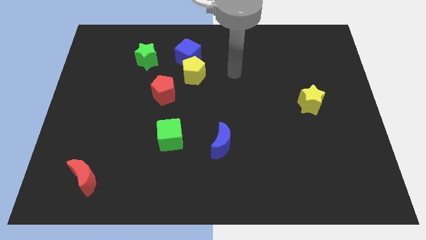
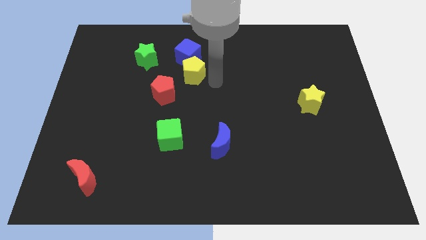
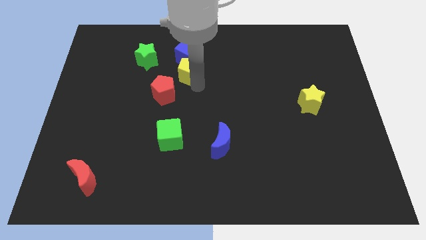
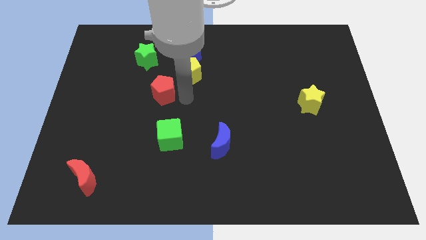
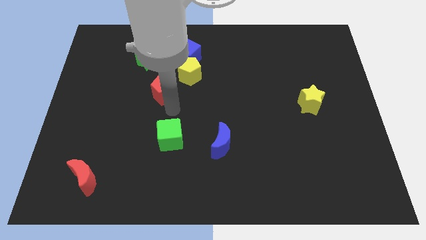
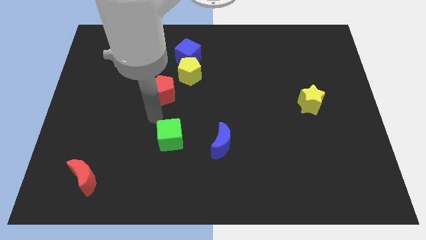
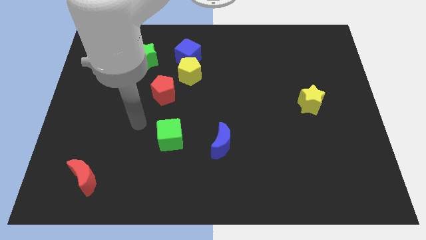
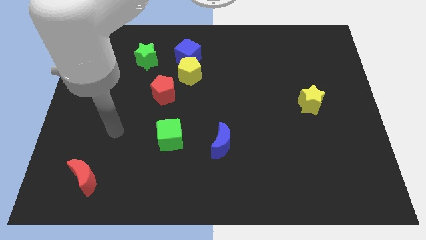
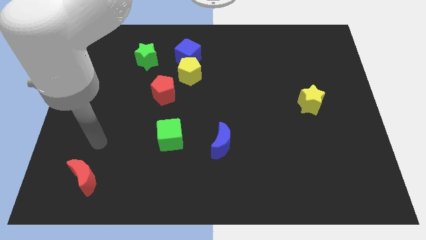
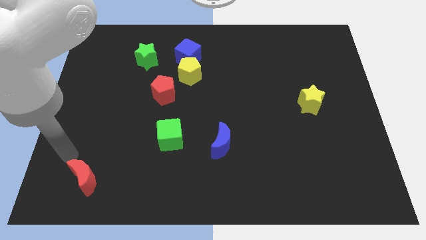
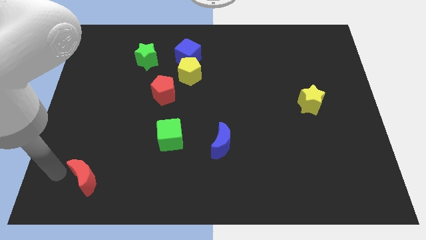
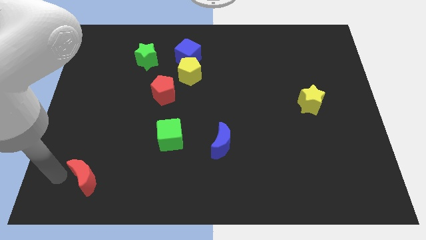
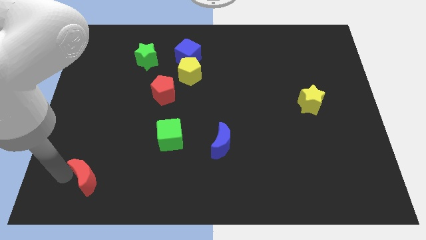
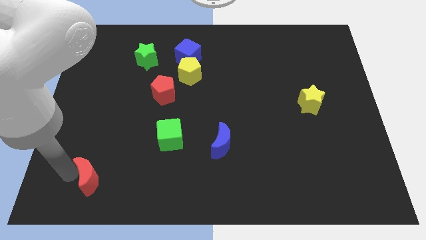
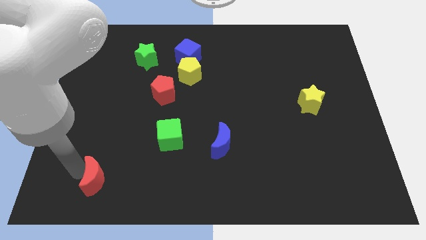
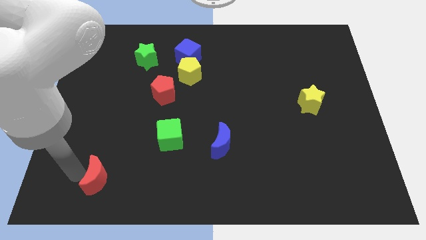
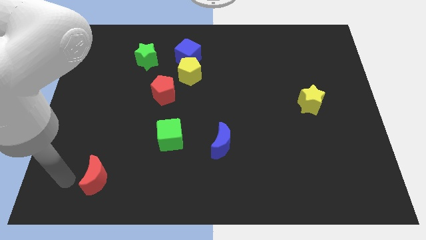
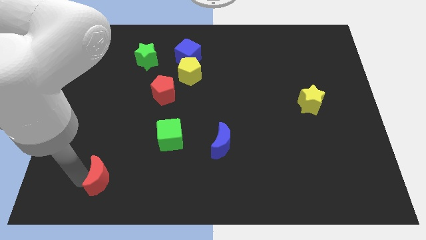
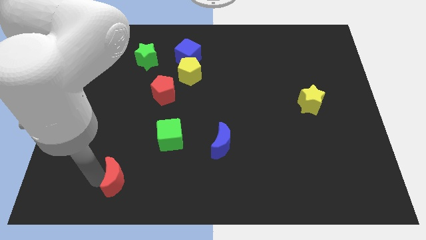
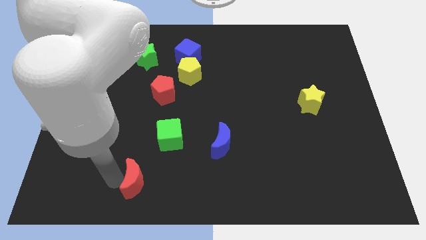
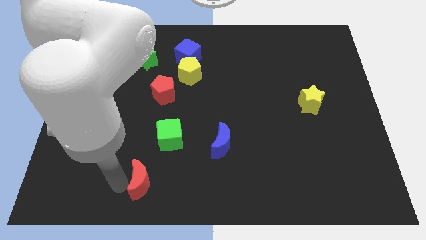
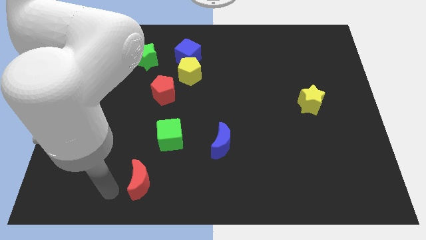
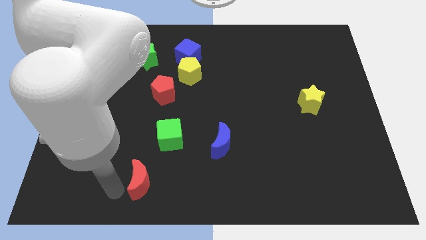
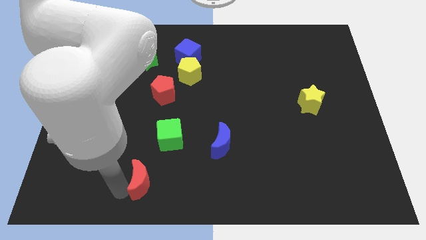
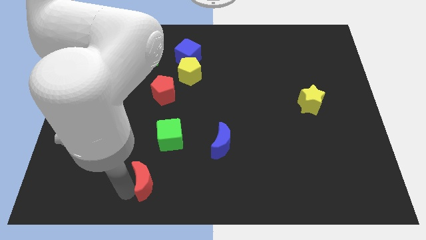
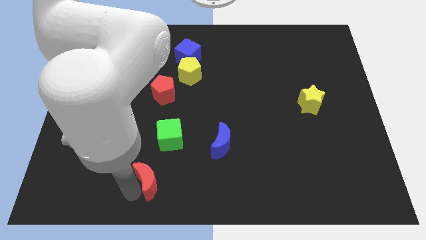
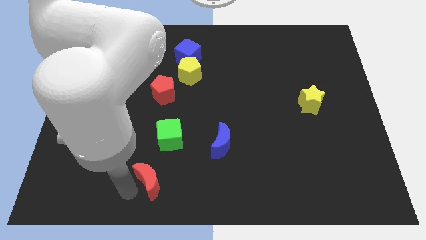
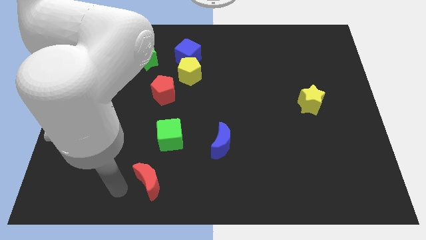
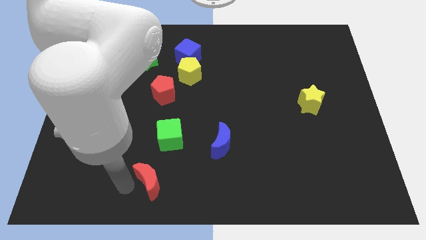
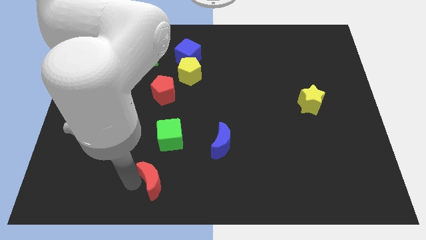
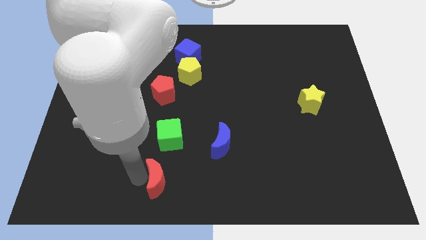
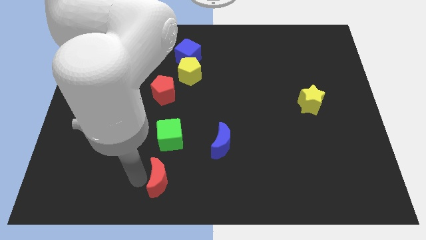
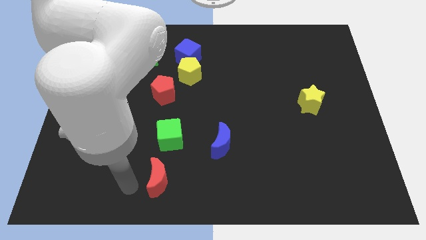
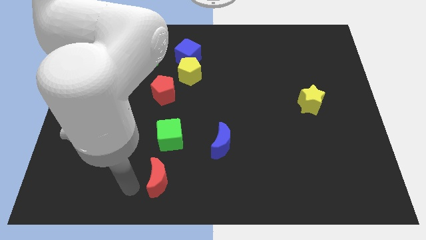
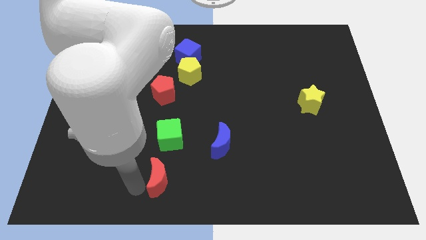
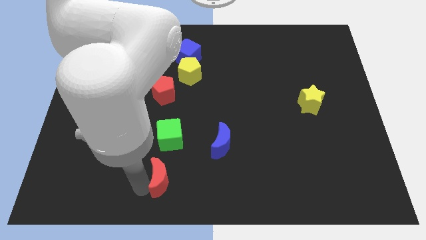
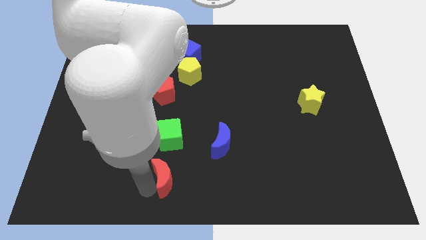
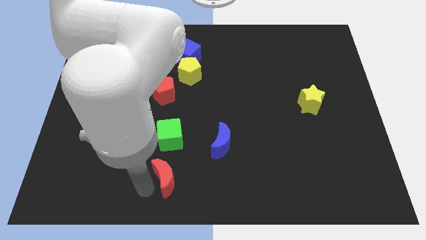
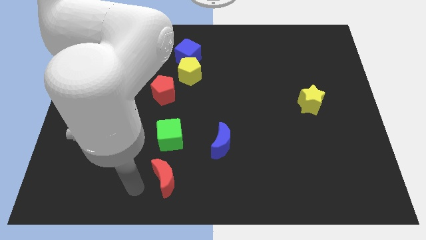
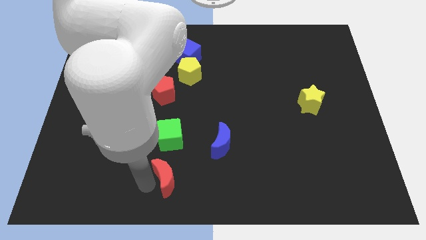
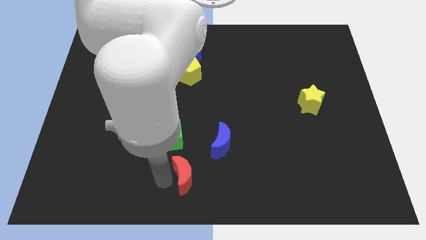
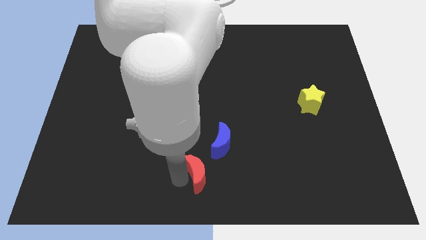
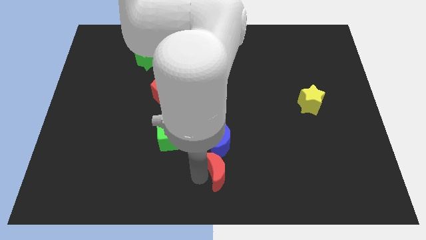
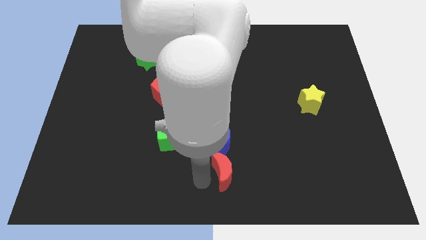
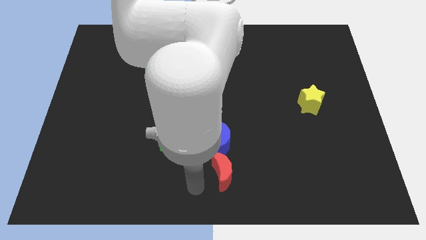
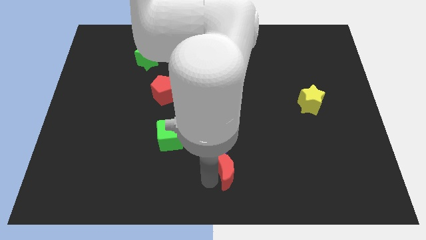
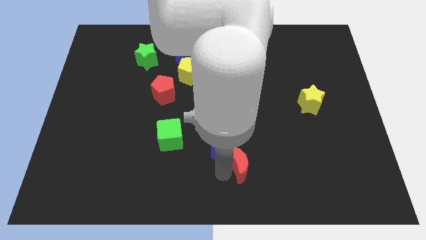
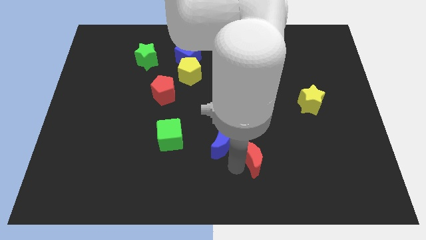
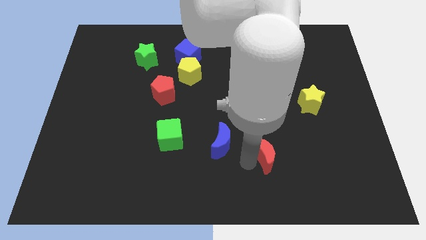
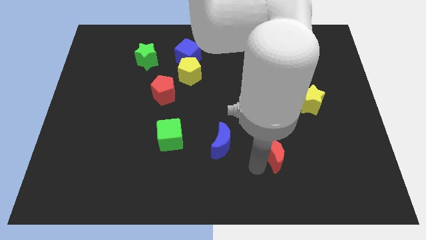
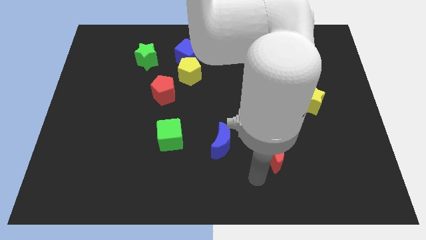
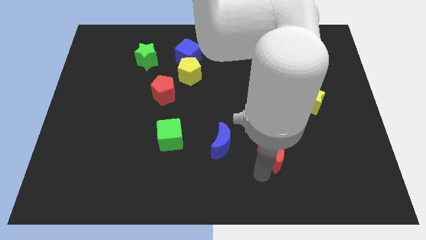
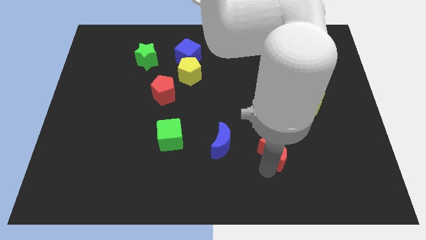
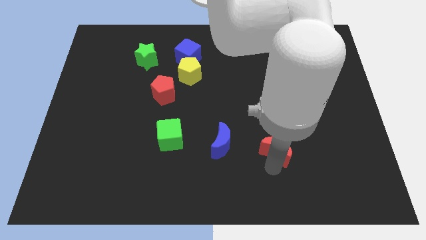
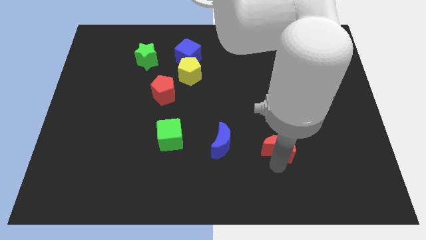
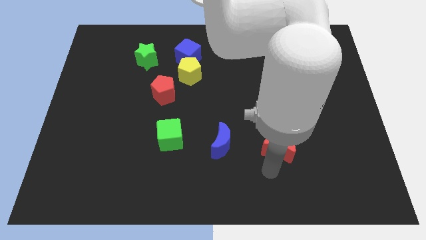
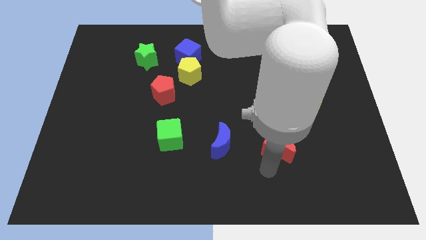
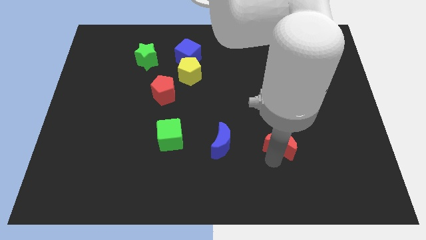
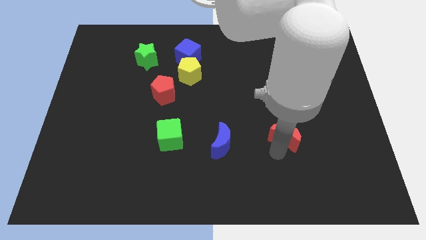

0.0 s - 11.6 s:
slide the red moon to the bottom left of the yellow star

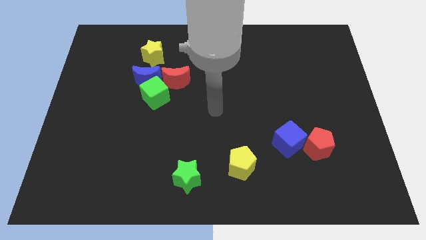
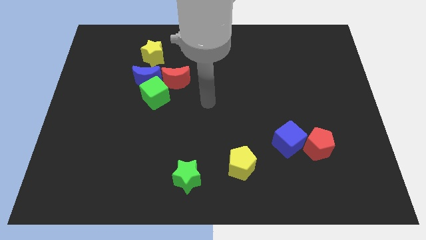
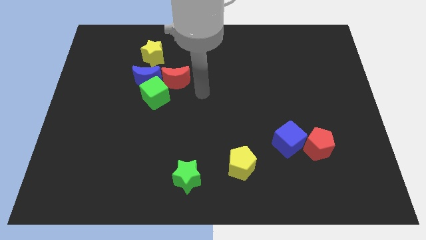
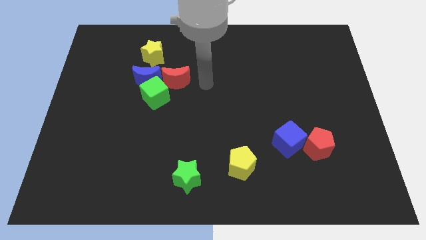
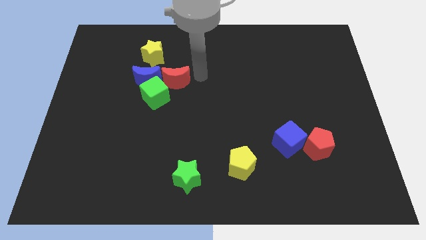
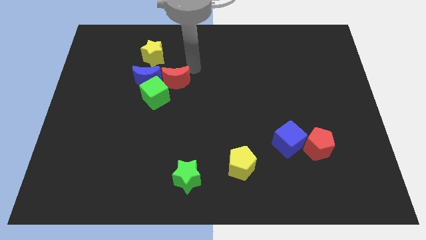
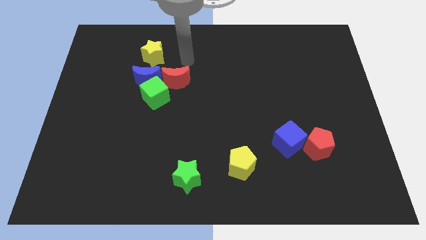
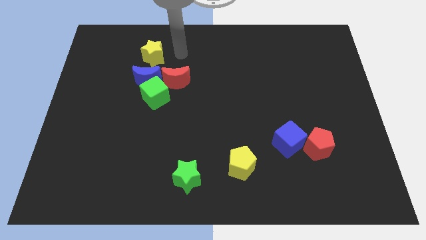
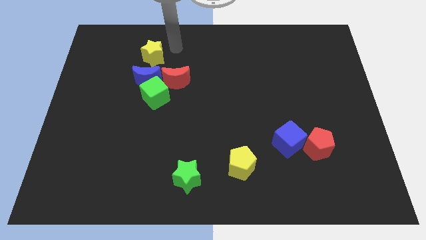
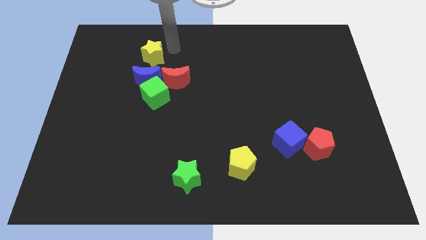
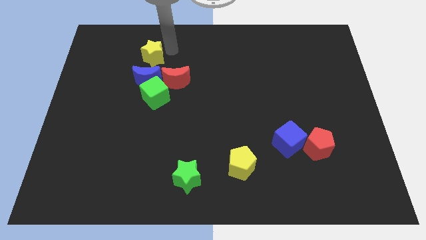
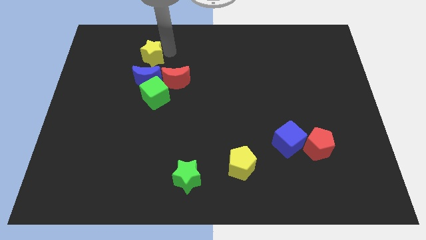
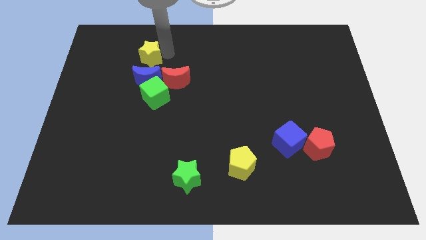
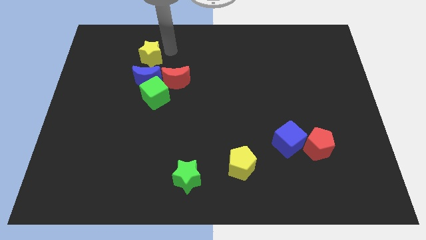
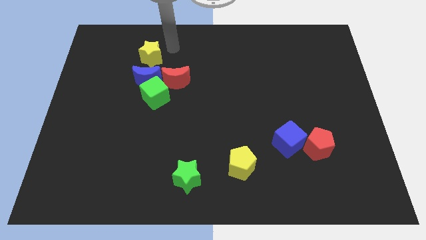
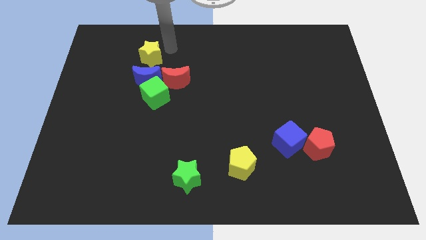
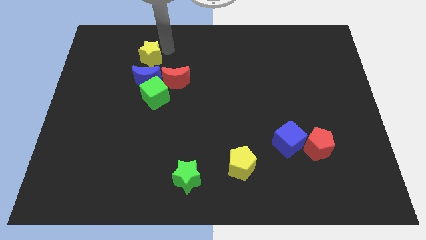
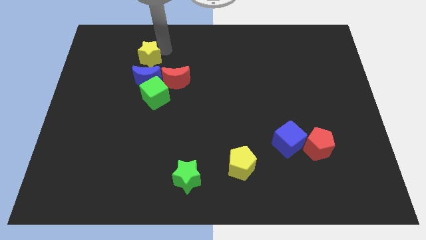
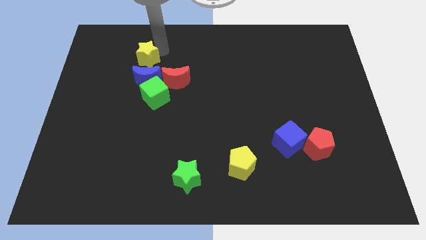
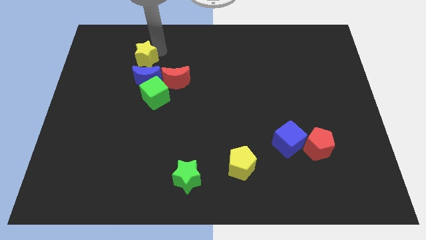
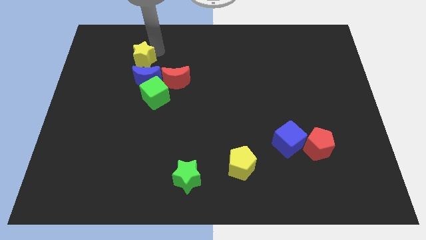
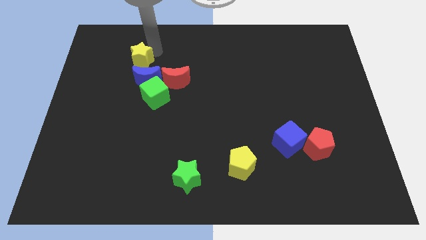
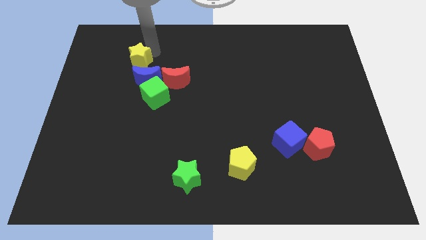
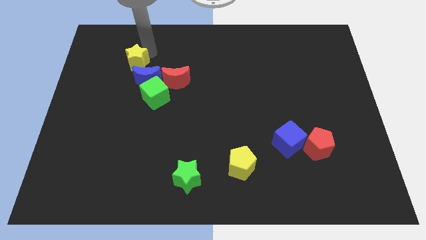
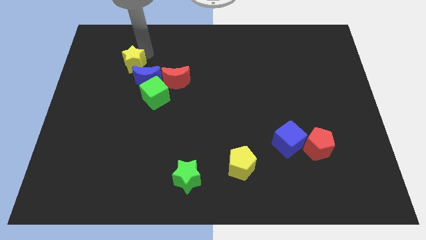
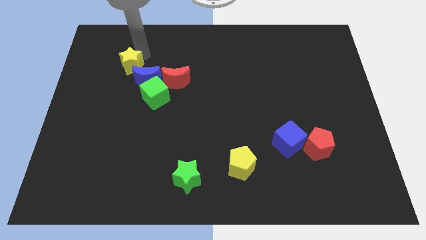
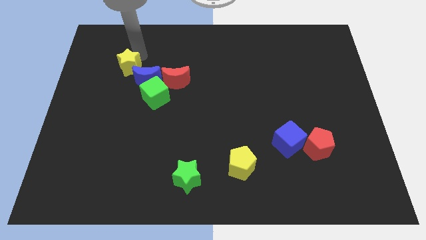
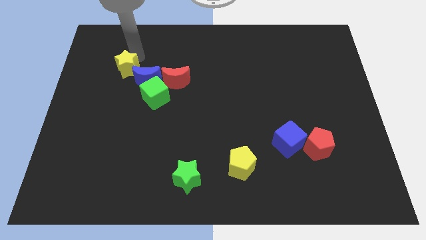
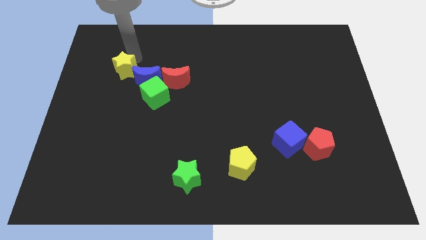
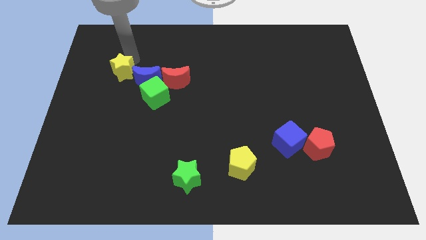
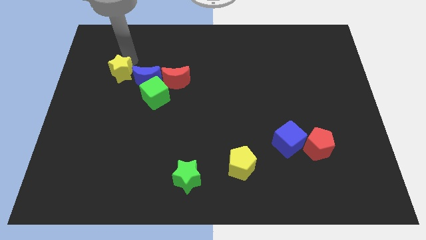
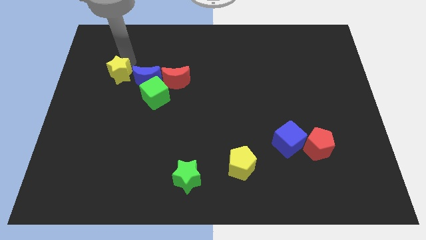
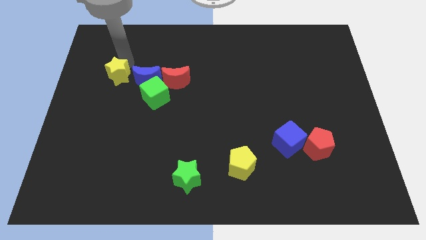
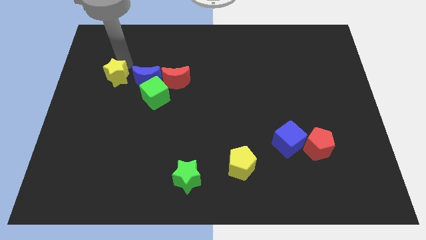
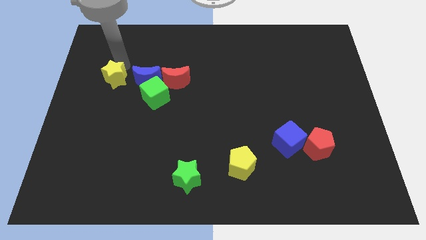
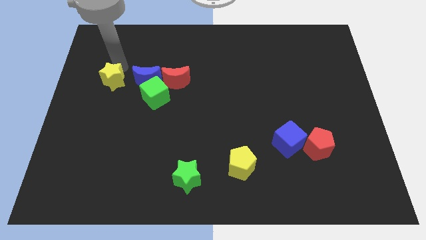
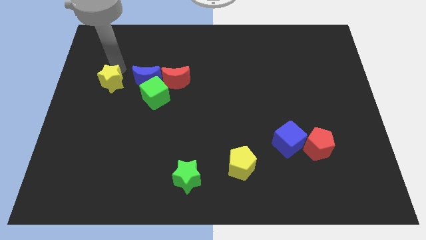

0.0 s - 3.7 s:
push the yellow star to the left side of the green cube
